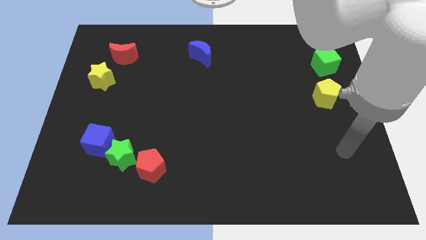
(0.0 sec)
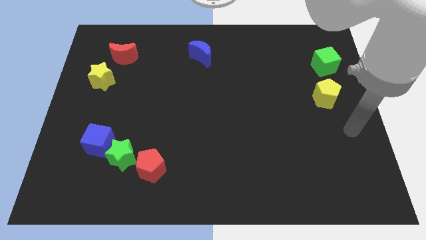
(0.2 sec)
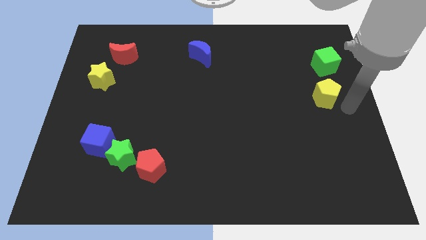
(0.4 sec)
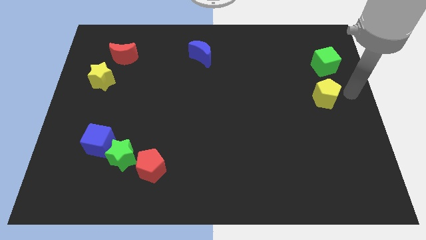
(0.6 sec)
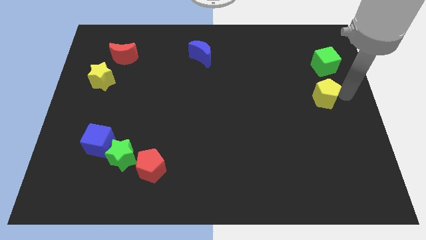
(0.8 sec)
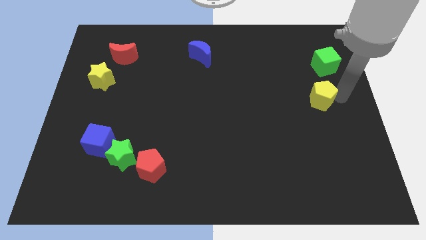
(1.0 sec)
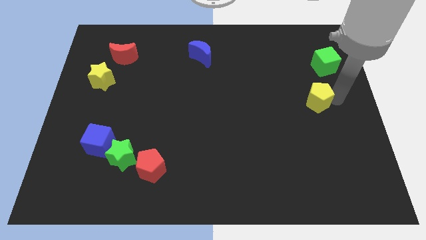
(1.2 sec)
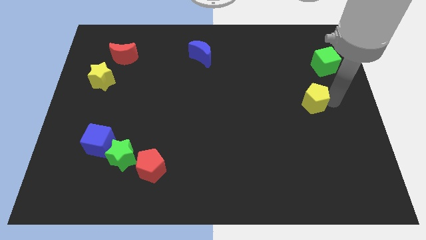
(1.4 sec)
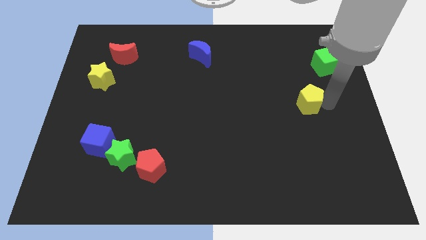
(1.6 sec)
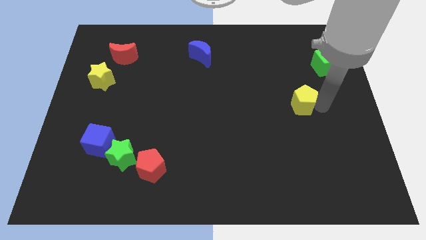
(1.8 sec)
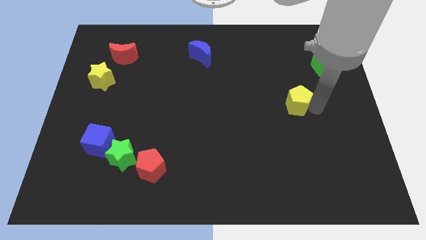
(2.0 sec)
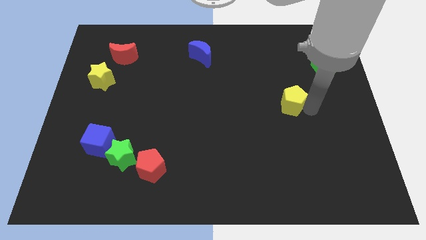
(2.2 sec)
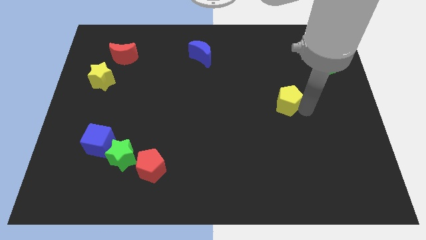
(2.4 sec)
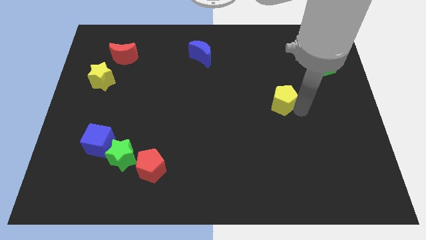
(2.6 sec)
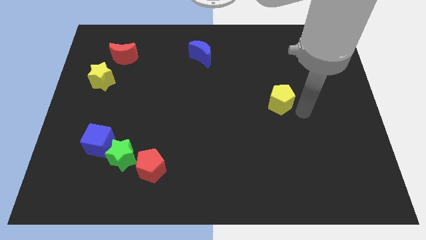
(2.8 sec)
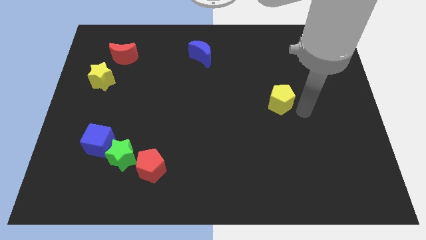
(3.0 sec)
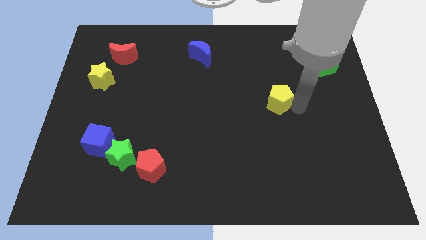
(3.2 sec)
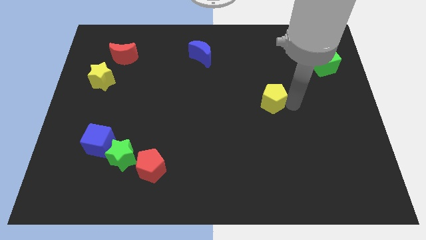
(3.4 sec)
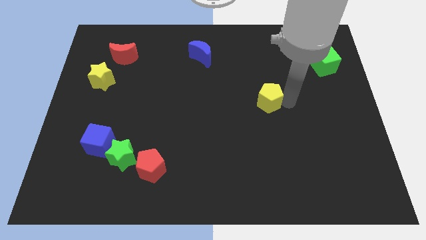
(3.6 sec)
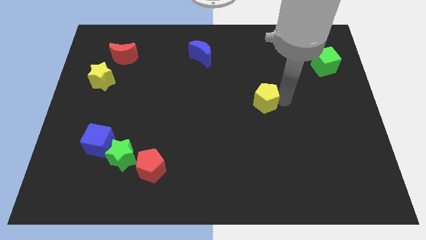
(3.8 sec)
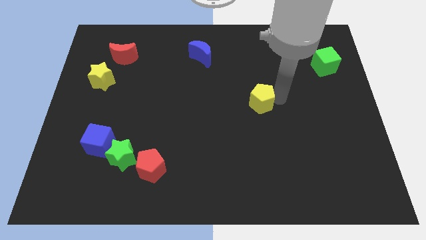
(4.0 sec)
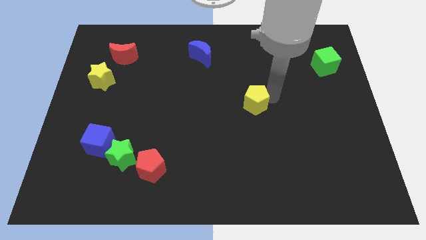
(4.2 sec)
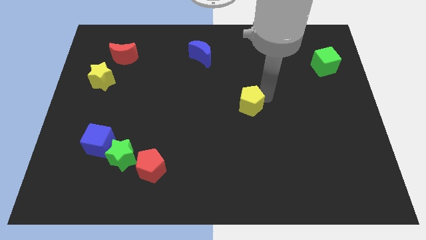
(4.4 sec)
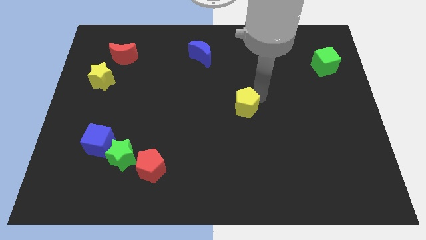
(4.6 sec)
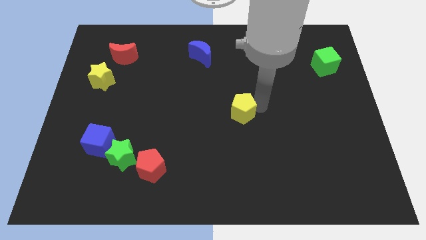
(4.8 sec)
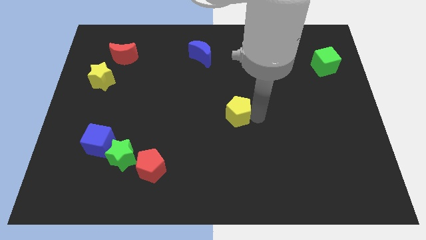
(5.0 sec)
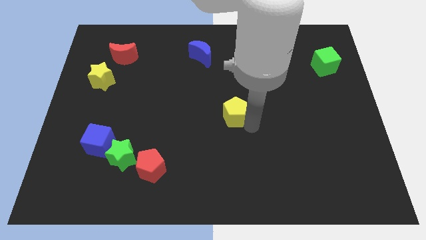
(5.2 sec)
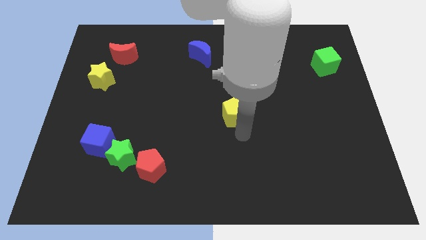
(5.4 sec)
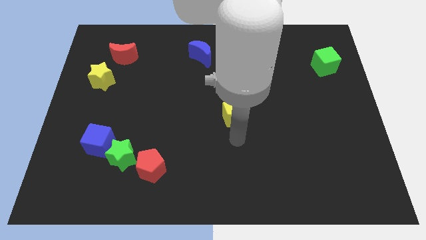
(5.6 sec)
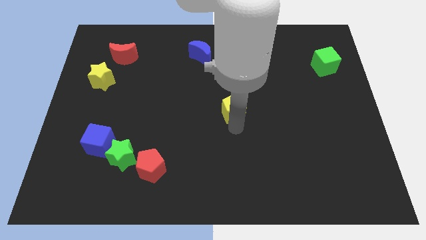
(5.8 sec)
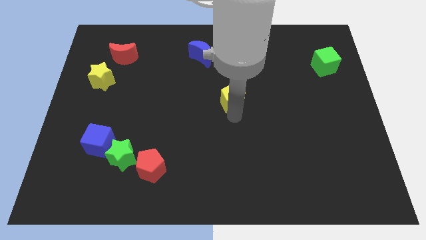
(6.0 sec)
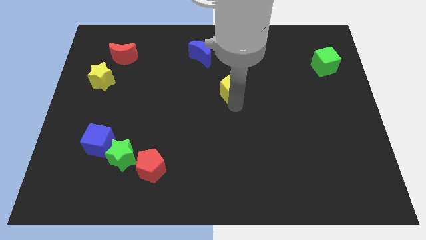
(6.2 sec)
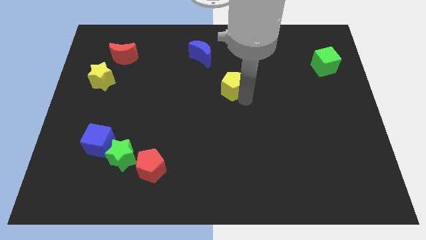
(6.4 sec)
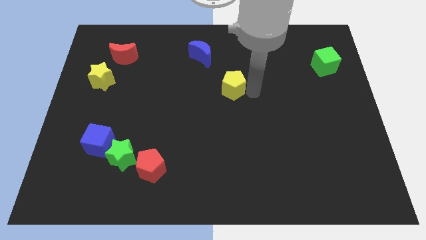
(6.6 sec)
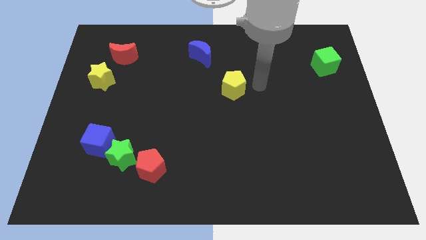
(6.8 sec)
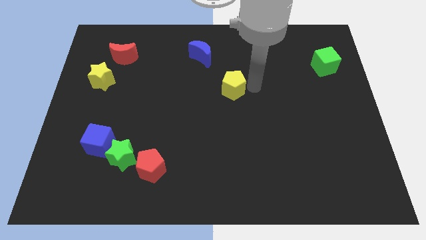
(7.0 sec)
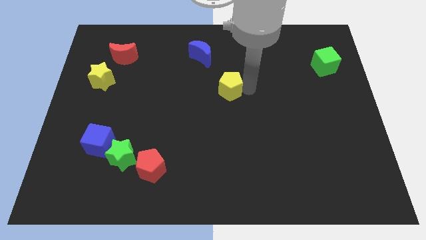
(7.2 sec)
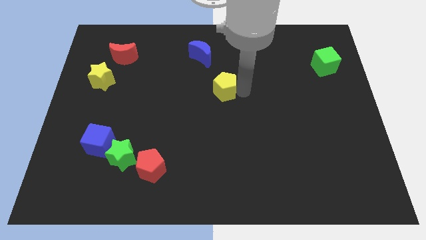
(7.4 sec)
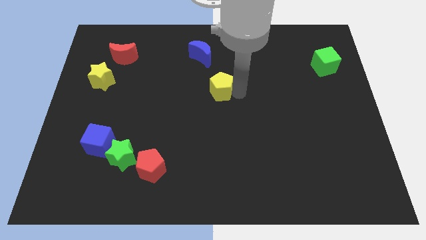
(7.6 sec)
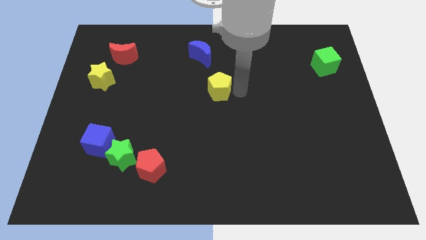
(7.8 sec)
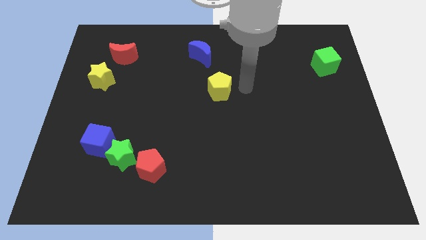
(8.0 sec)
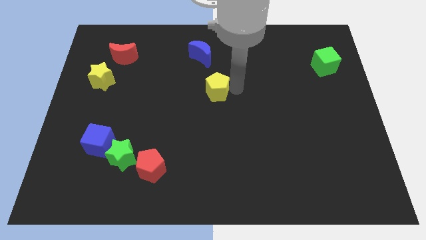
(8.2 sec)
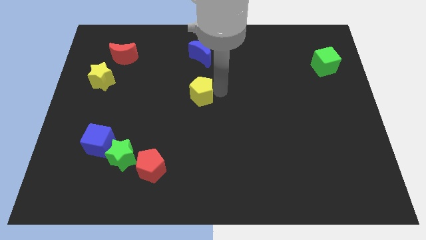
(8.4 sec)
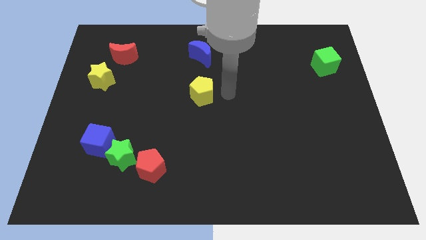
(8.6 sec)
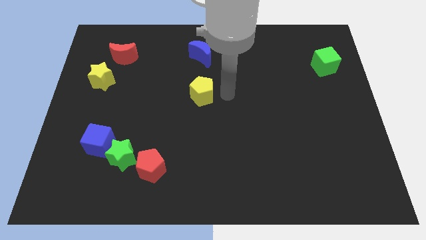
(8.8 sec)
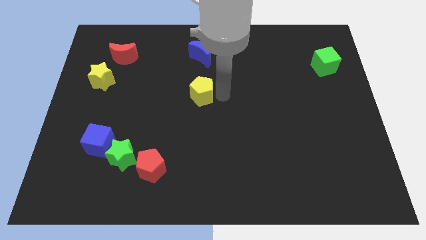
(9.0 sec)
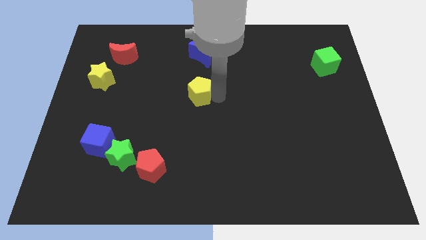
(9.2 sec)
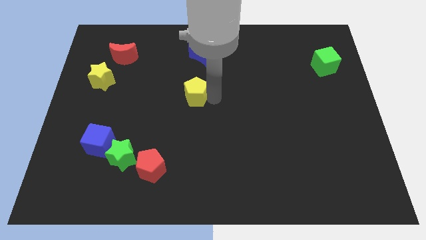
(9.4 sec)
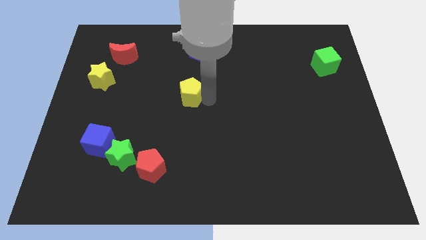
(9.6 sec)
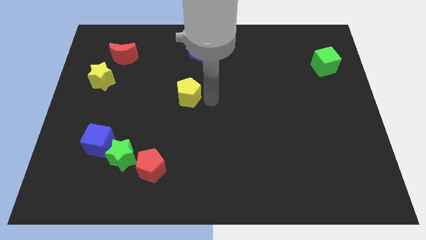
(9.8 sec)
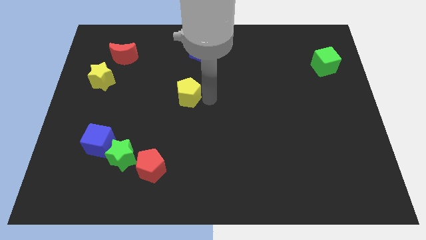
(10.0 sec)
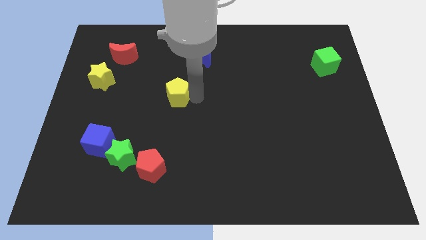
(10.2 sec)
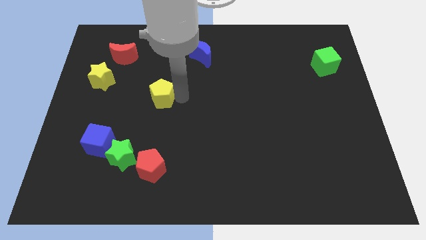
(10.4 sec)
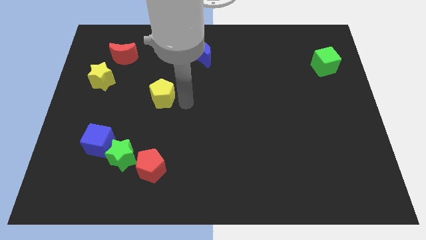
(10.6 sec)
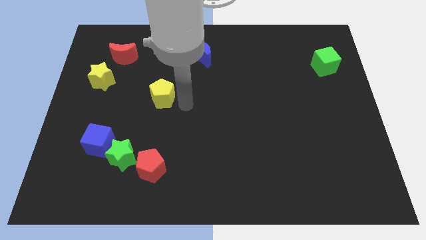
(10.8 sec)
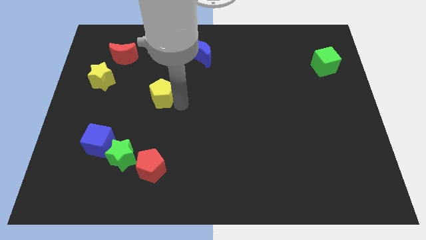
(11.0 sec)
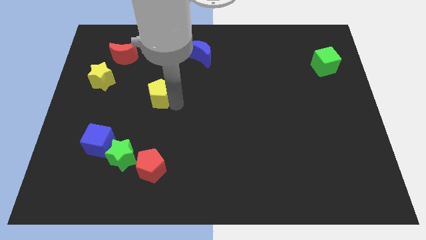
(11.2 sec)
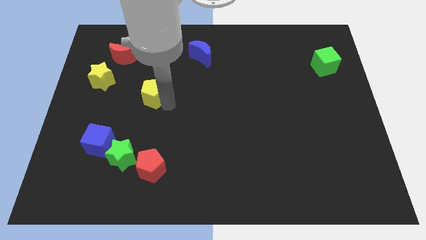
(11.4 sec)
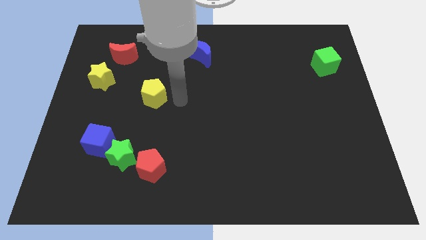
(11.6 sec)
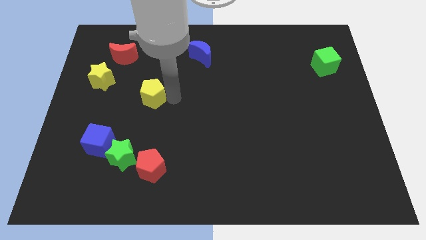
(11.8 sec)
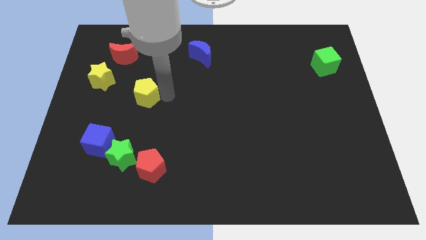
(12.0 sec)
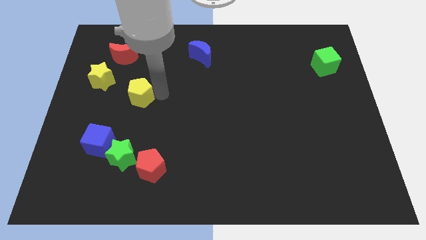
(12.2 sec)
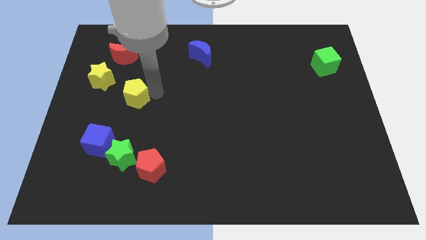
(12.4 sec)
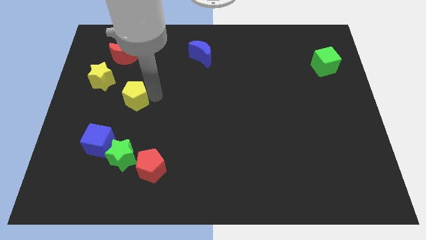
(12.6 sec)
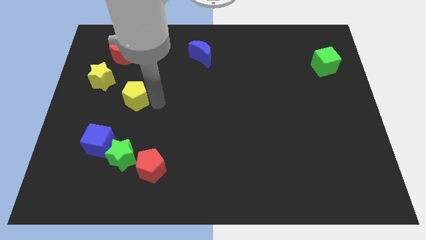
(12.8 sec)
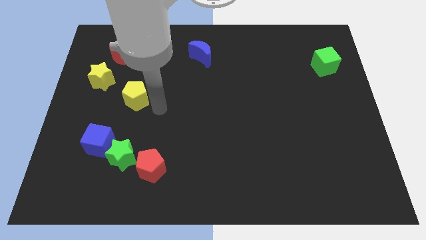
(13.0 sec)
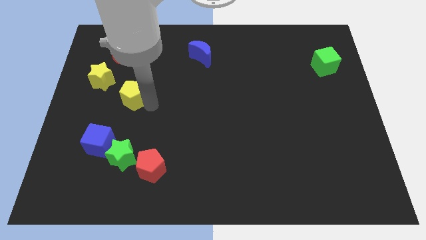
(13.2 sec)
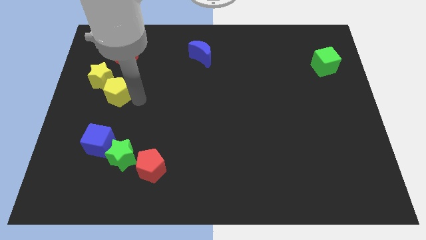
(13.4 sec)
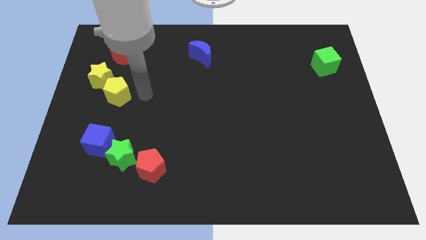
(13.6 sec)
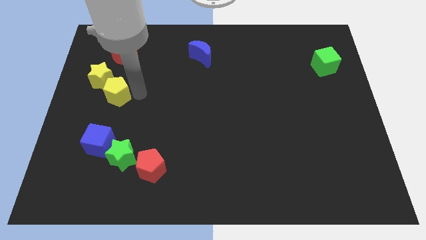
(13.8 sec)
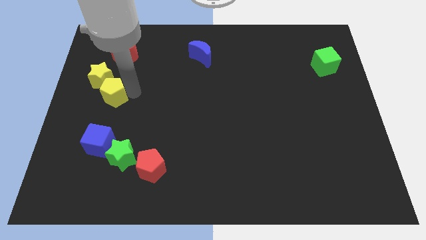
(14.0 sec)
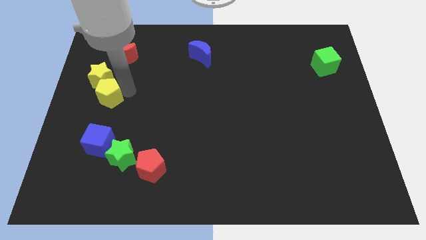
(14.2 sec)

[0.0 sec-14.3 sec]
put the yellow pentagon to the left side
